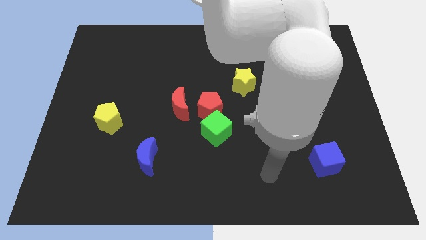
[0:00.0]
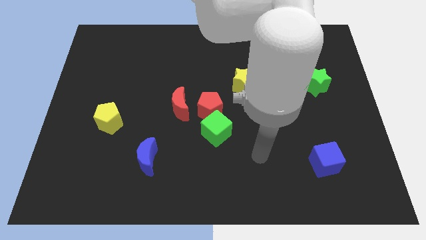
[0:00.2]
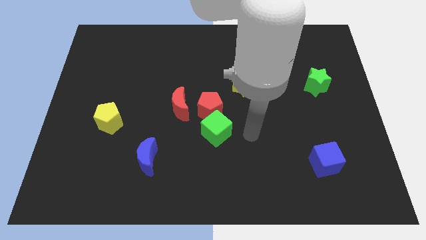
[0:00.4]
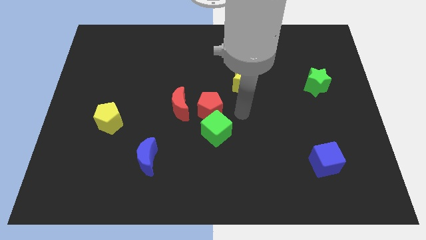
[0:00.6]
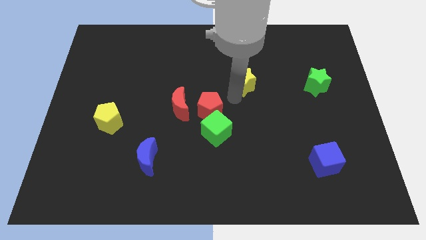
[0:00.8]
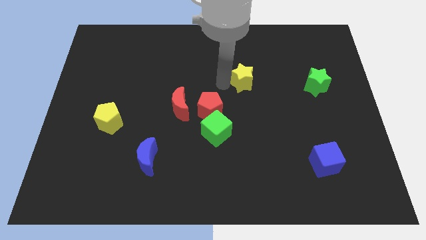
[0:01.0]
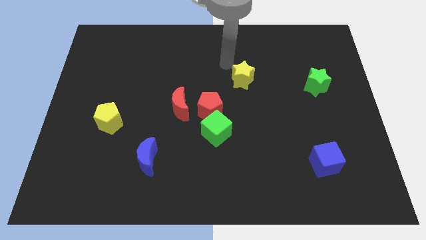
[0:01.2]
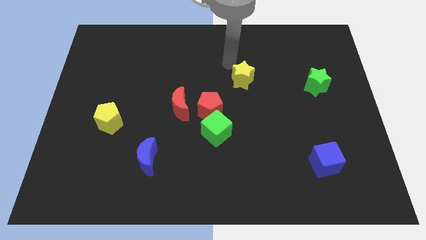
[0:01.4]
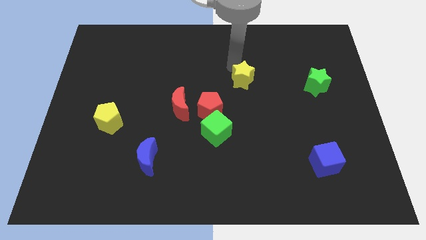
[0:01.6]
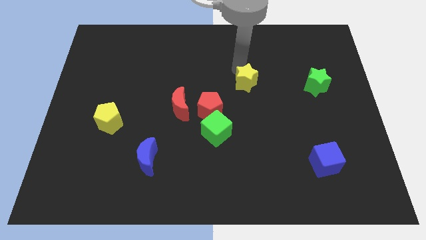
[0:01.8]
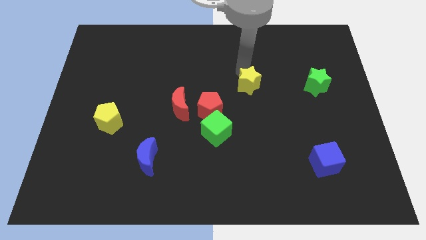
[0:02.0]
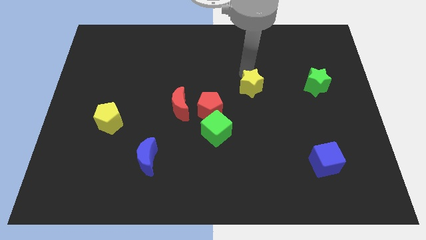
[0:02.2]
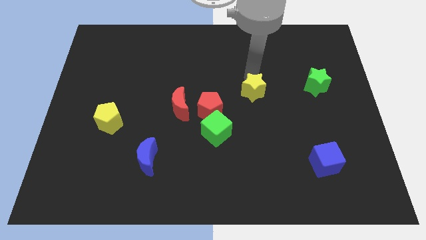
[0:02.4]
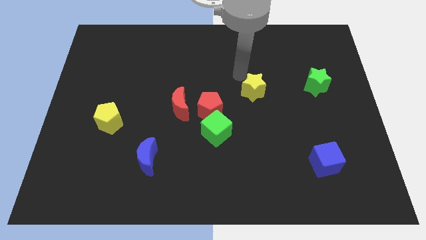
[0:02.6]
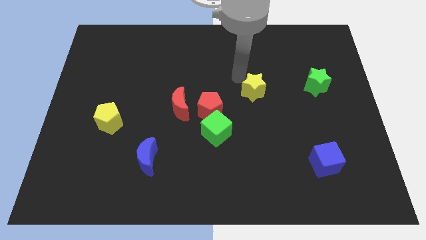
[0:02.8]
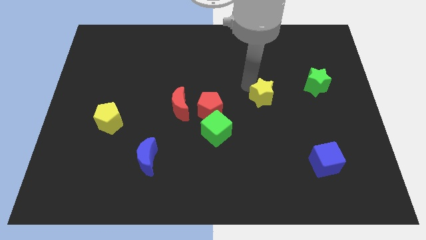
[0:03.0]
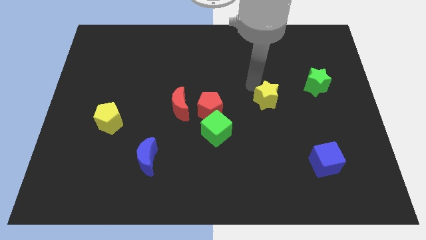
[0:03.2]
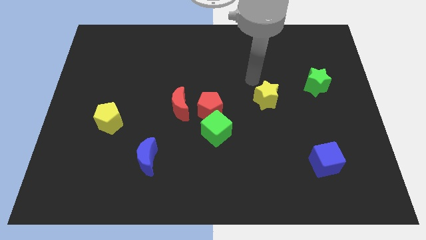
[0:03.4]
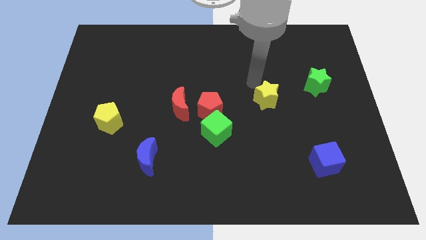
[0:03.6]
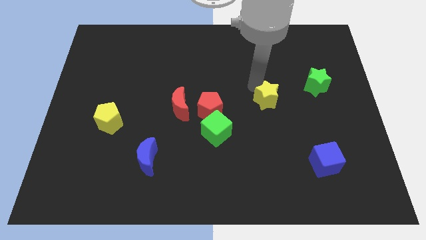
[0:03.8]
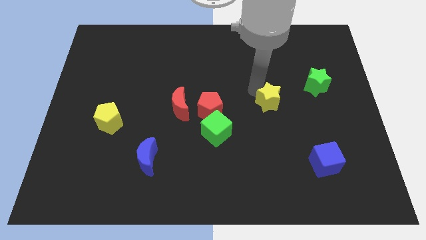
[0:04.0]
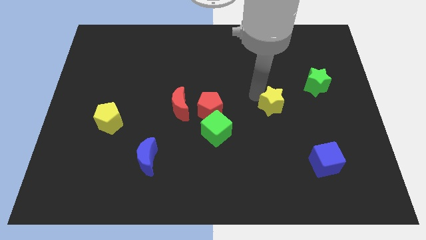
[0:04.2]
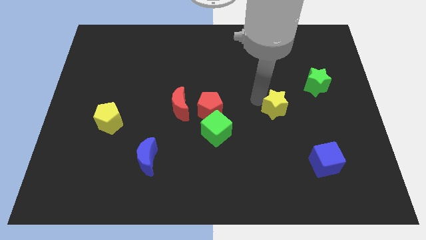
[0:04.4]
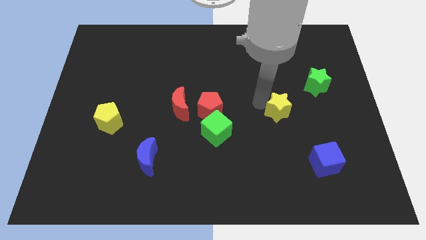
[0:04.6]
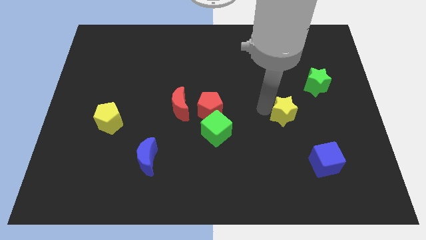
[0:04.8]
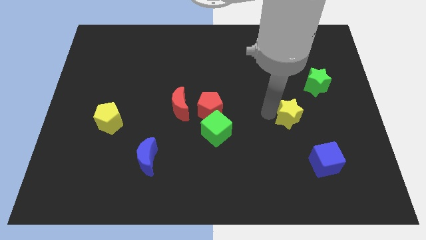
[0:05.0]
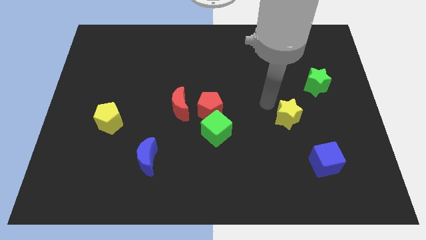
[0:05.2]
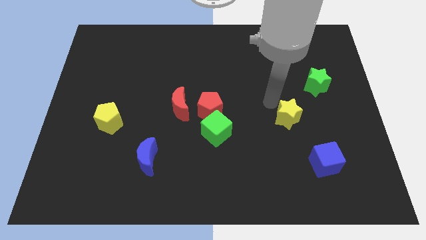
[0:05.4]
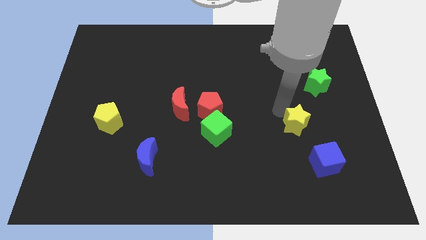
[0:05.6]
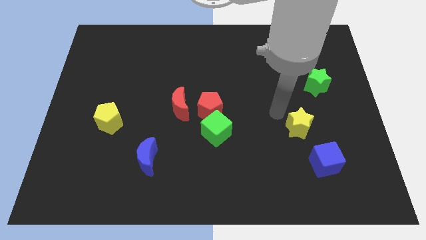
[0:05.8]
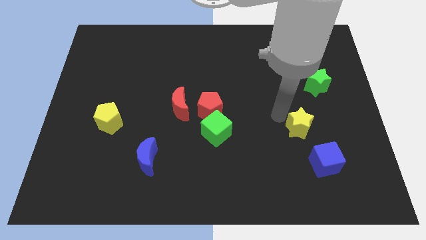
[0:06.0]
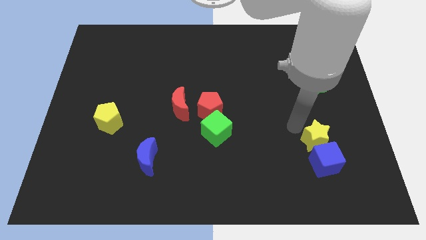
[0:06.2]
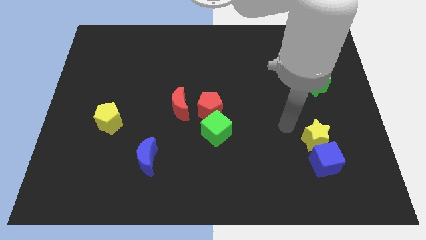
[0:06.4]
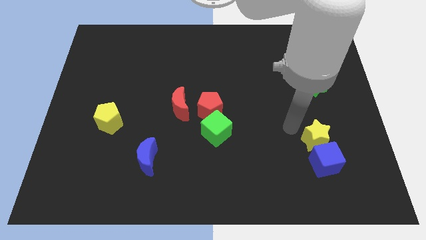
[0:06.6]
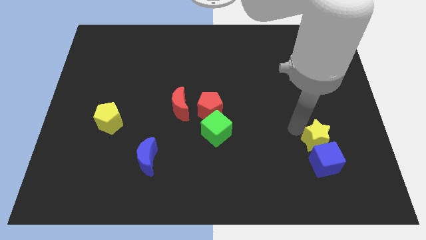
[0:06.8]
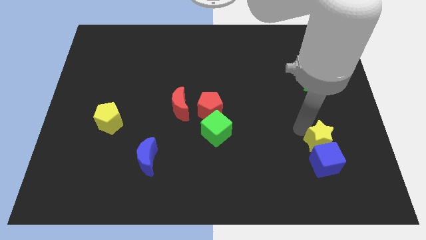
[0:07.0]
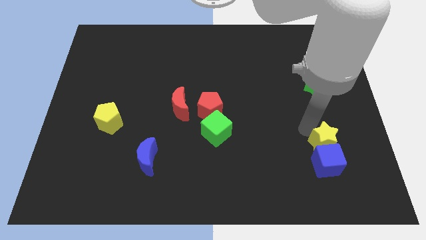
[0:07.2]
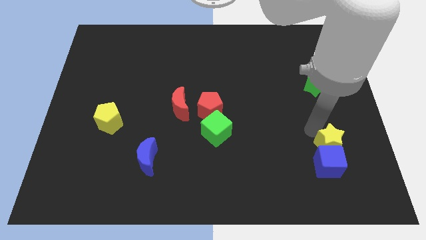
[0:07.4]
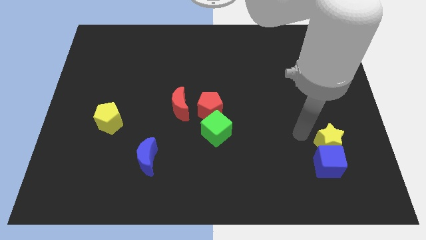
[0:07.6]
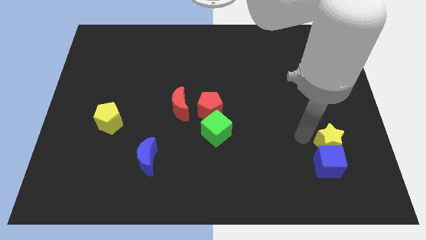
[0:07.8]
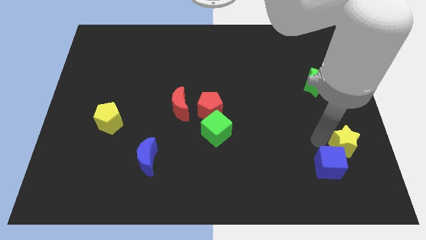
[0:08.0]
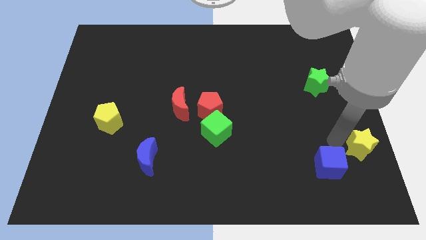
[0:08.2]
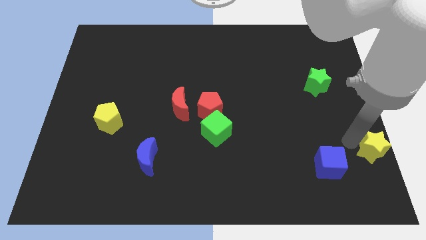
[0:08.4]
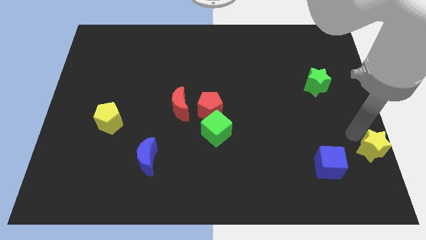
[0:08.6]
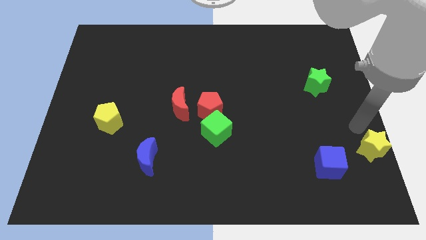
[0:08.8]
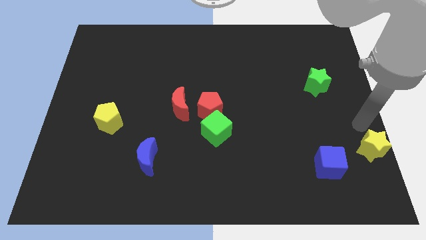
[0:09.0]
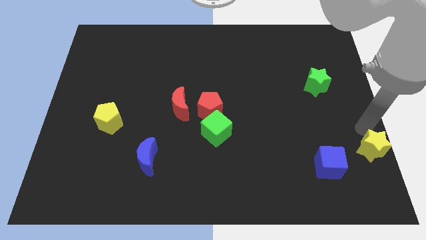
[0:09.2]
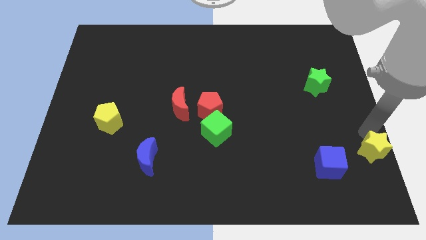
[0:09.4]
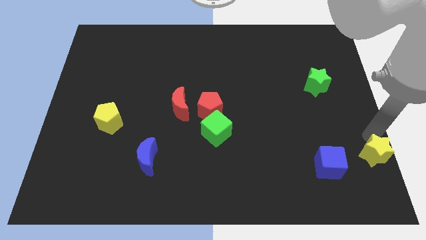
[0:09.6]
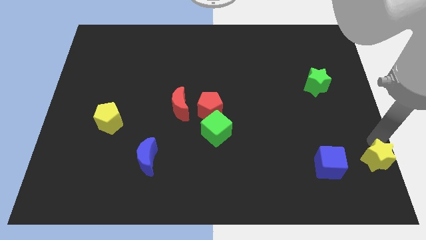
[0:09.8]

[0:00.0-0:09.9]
put the yellow star to the bottom right of the board

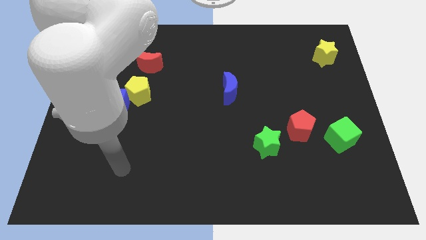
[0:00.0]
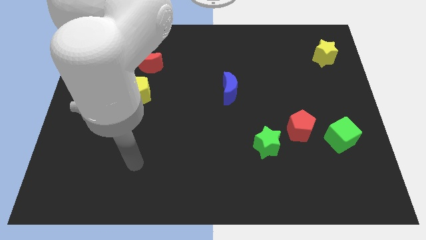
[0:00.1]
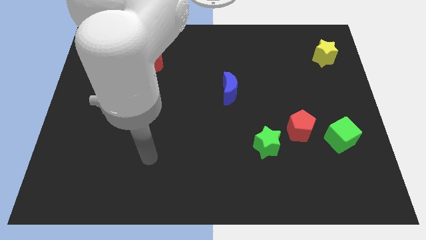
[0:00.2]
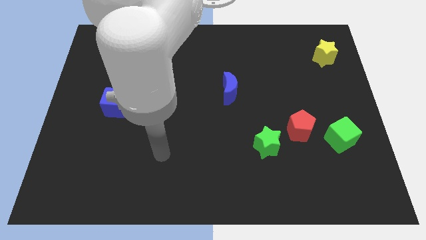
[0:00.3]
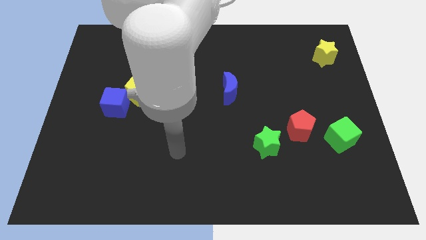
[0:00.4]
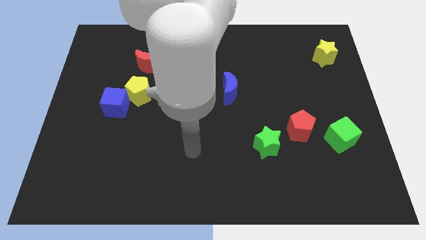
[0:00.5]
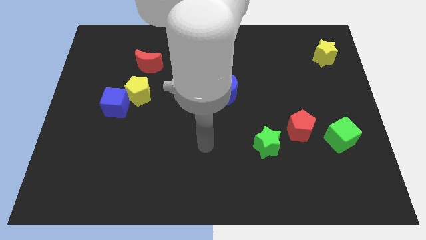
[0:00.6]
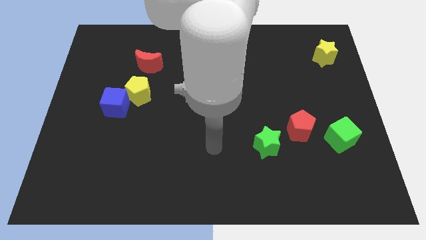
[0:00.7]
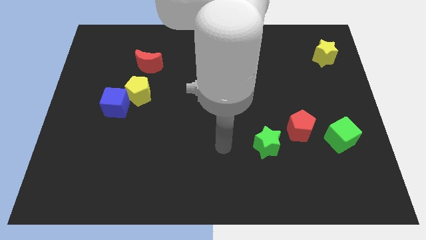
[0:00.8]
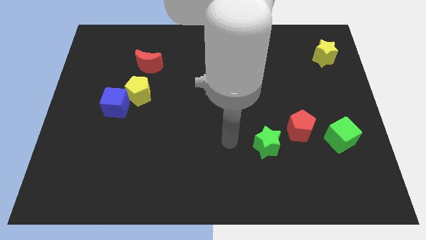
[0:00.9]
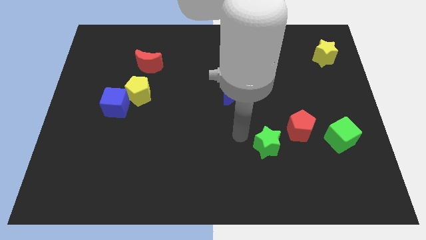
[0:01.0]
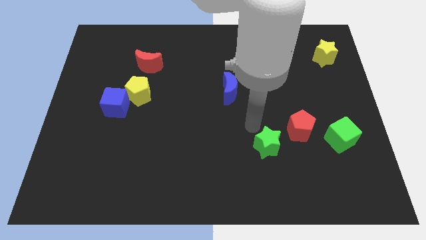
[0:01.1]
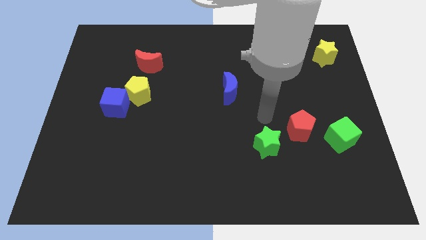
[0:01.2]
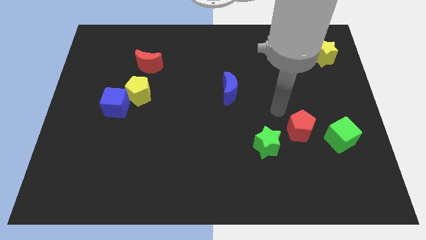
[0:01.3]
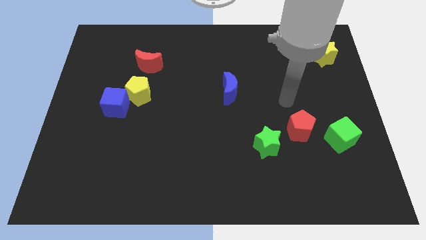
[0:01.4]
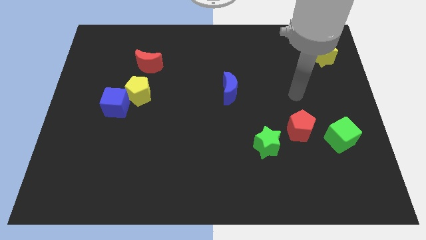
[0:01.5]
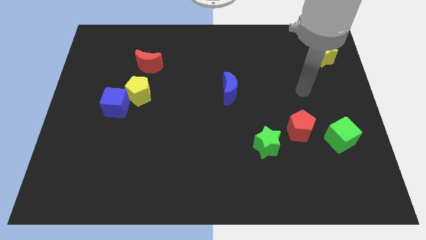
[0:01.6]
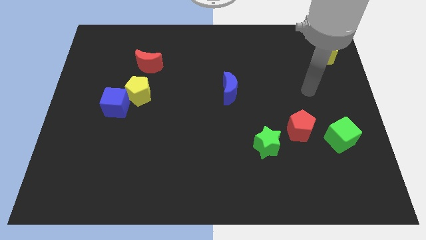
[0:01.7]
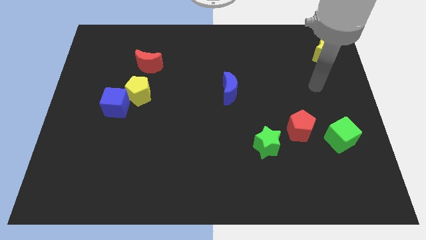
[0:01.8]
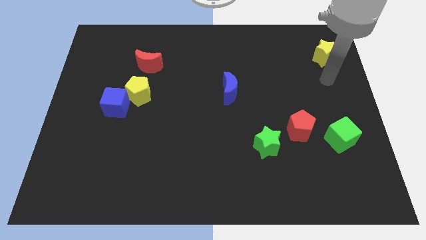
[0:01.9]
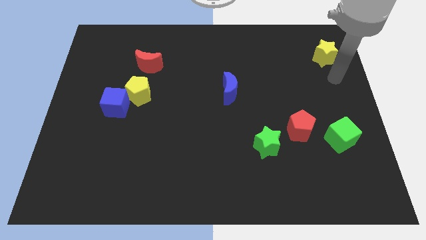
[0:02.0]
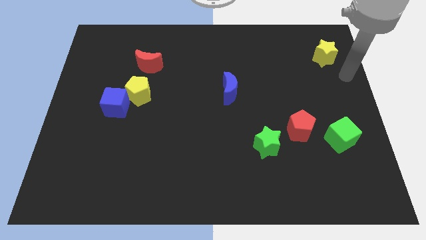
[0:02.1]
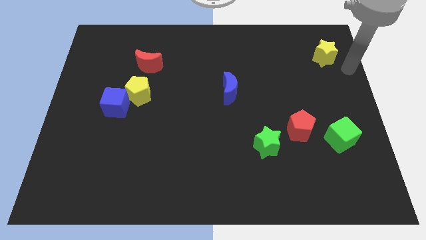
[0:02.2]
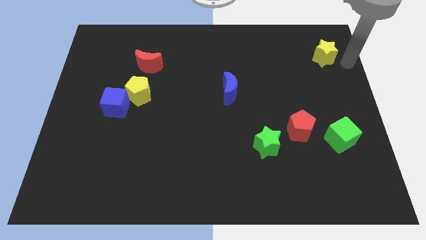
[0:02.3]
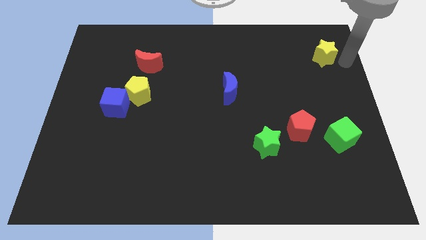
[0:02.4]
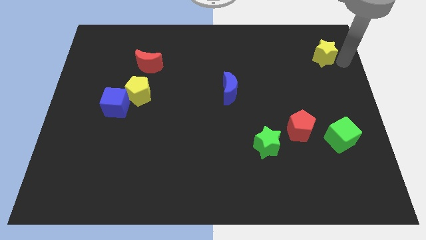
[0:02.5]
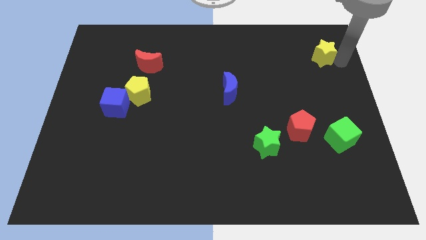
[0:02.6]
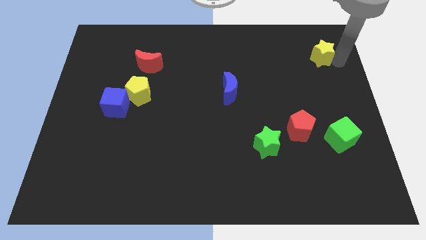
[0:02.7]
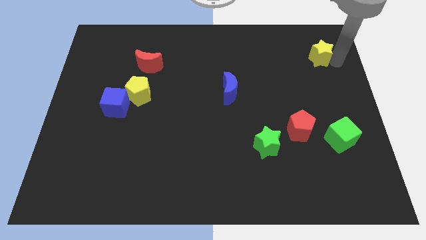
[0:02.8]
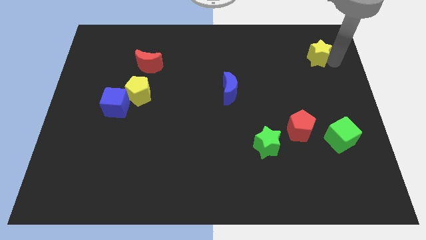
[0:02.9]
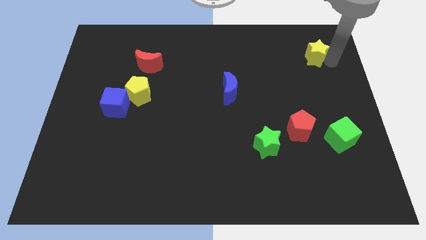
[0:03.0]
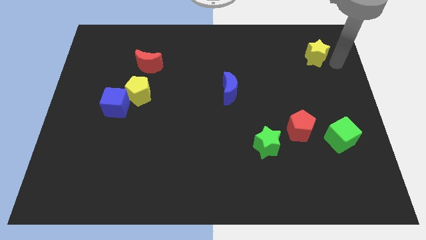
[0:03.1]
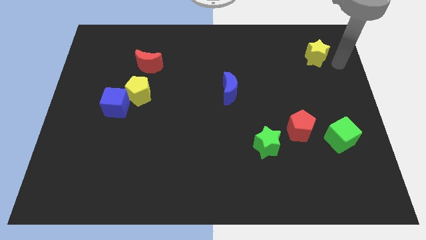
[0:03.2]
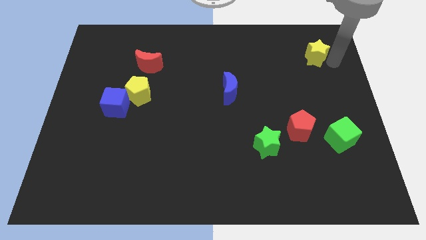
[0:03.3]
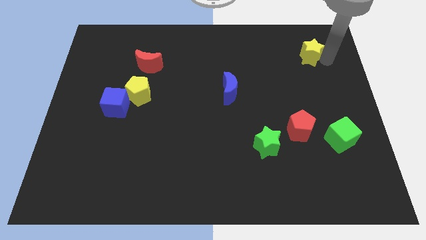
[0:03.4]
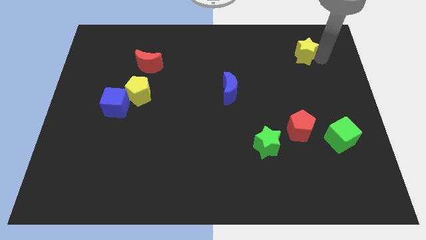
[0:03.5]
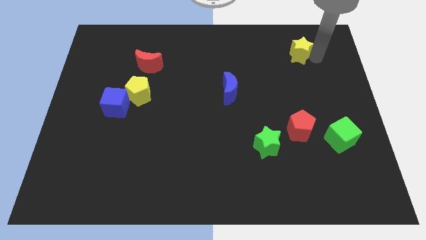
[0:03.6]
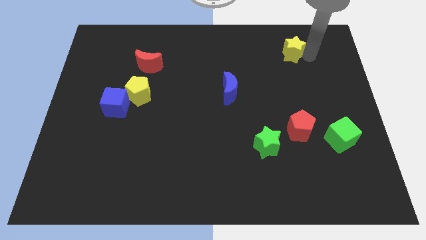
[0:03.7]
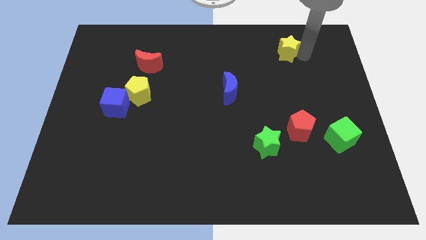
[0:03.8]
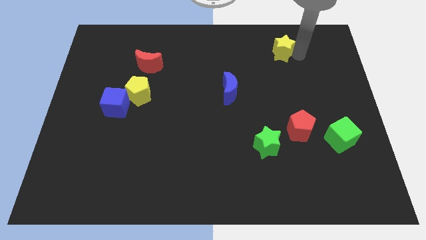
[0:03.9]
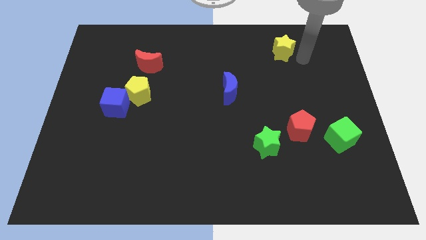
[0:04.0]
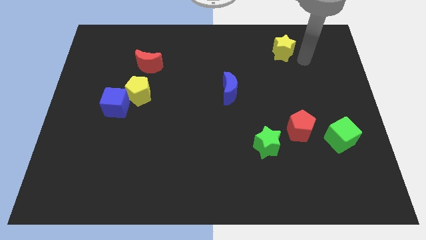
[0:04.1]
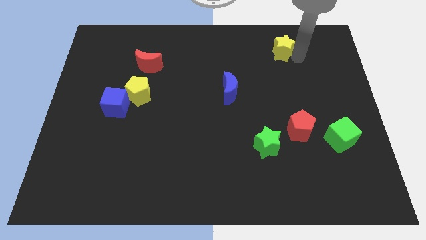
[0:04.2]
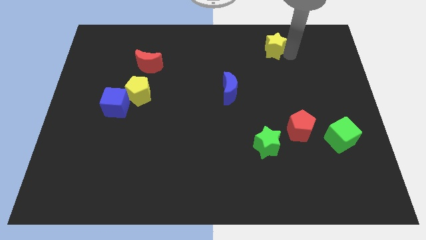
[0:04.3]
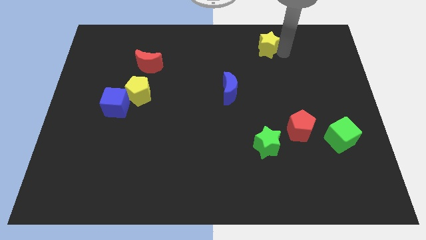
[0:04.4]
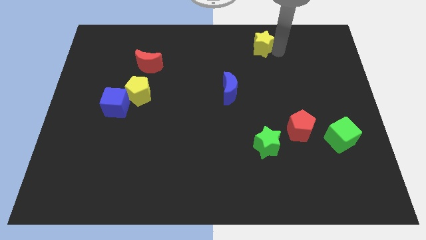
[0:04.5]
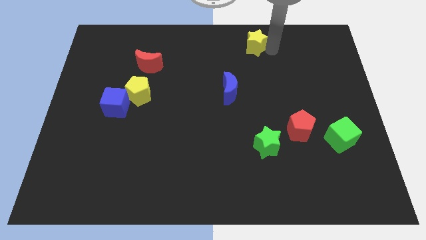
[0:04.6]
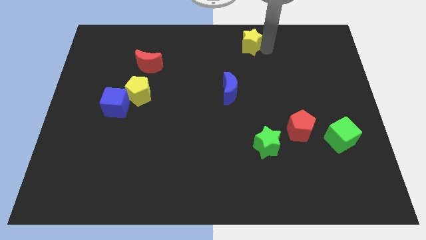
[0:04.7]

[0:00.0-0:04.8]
slide the yellow star to the top
